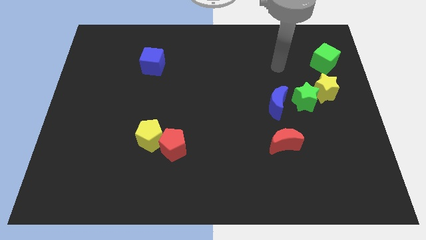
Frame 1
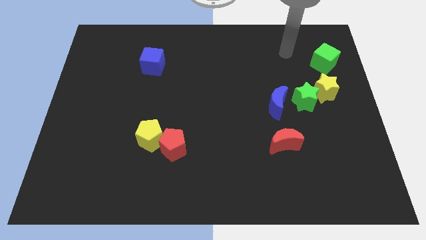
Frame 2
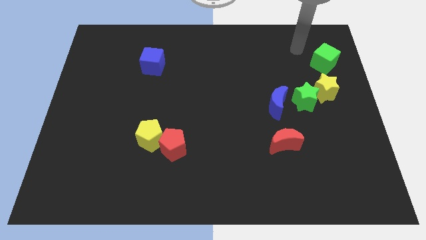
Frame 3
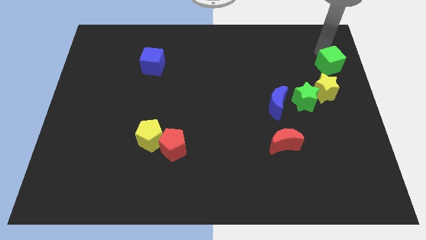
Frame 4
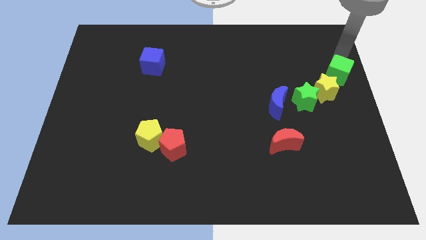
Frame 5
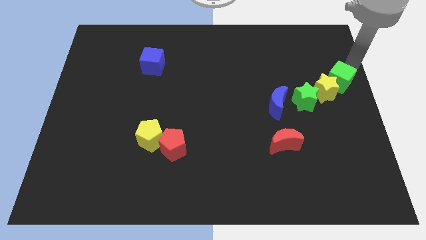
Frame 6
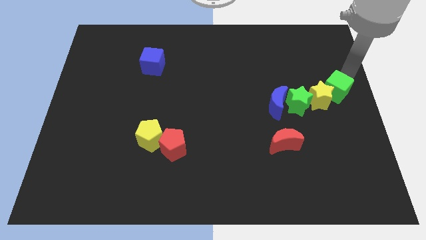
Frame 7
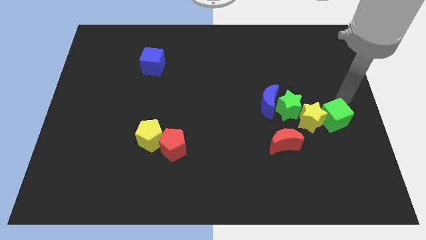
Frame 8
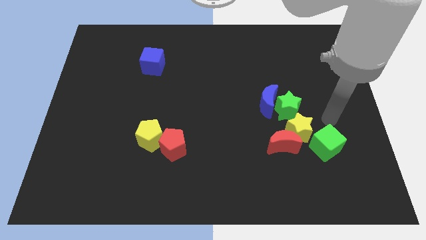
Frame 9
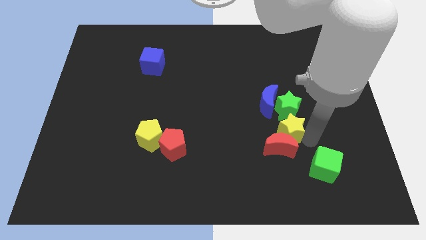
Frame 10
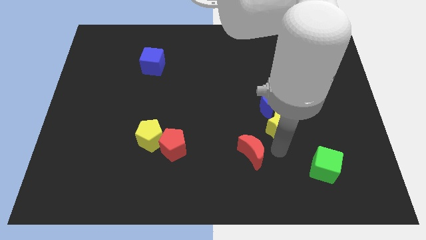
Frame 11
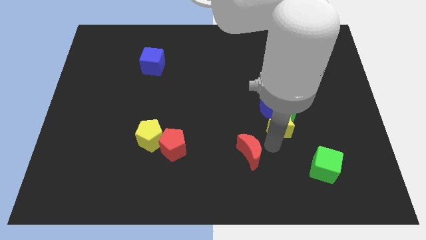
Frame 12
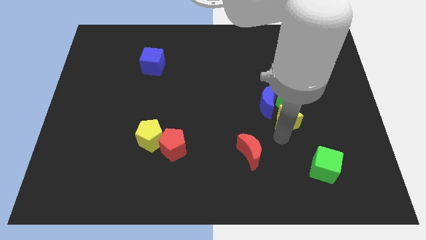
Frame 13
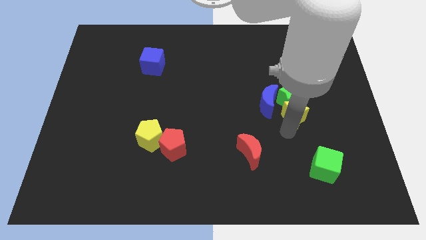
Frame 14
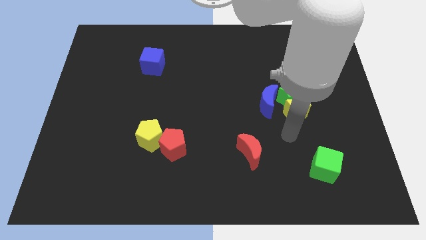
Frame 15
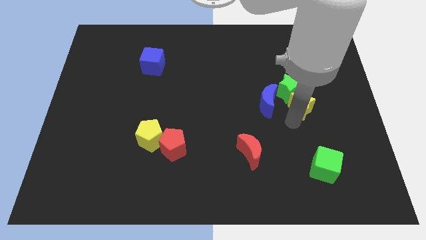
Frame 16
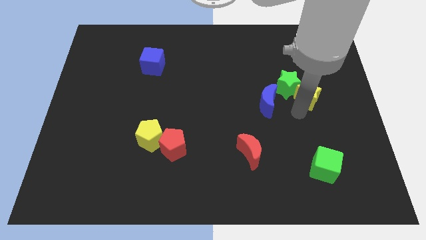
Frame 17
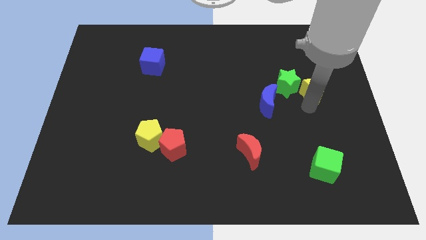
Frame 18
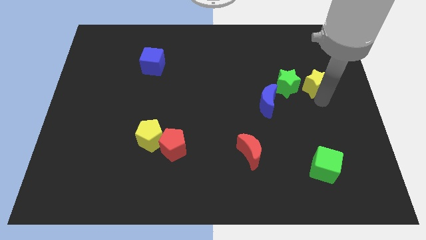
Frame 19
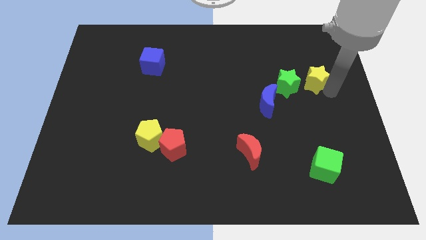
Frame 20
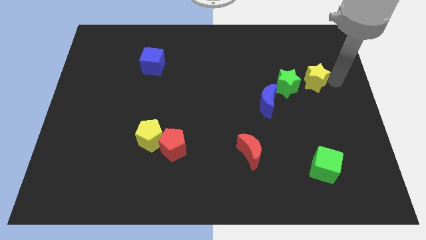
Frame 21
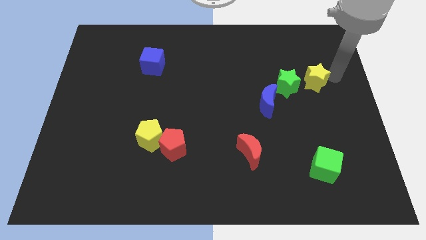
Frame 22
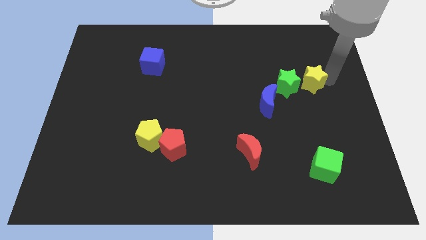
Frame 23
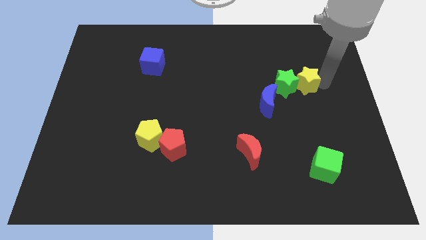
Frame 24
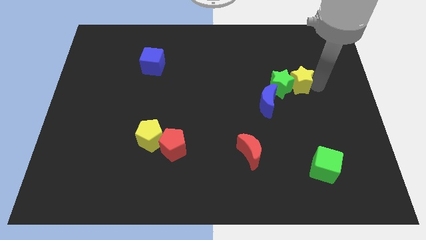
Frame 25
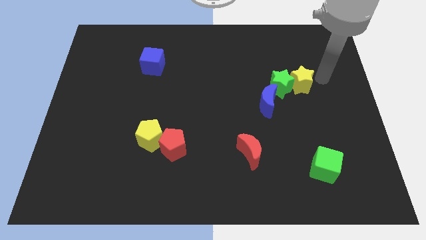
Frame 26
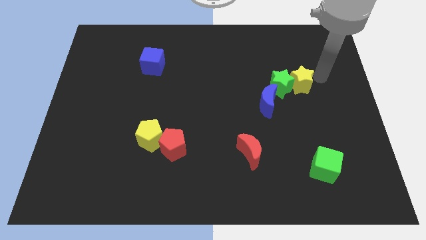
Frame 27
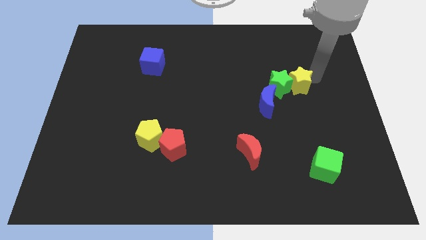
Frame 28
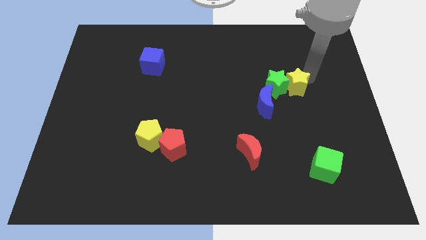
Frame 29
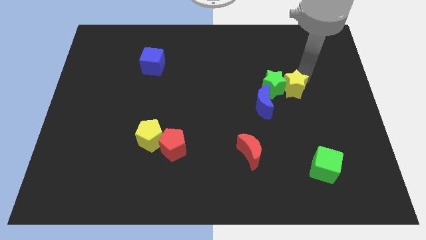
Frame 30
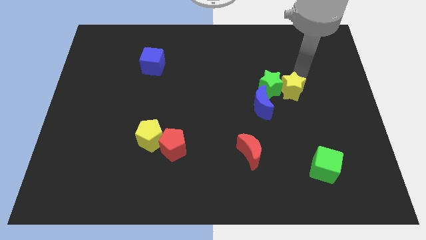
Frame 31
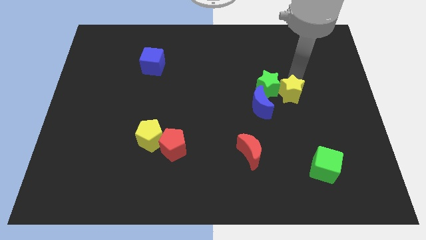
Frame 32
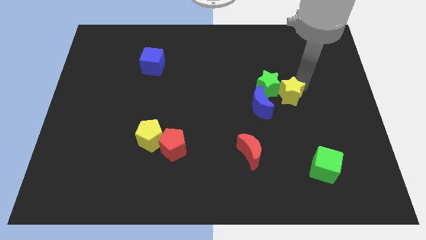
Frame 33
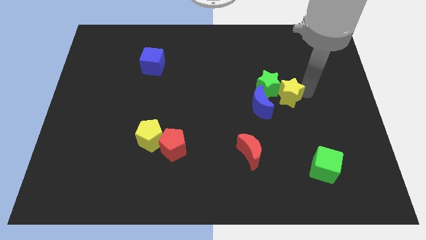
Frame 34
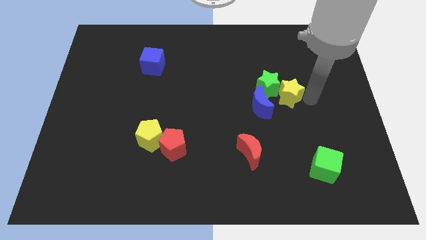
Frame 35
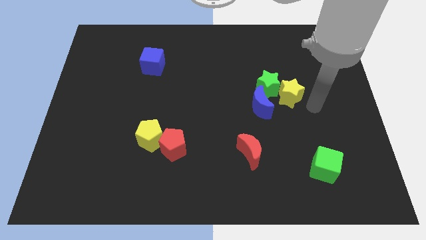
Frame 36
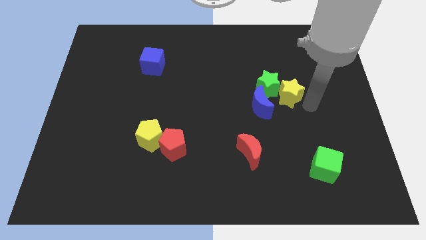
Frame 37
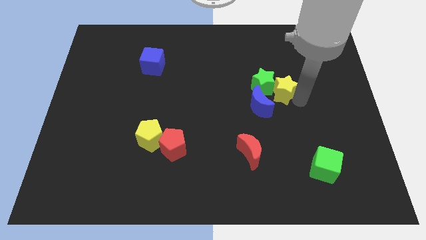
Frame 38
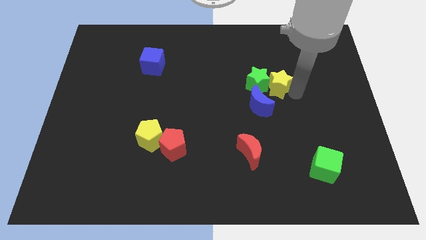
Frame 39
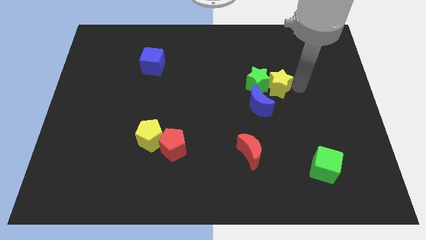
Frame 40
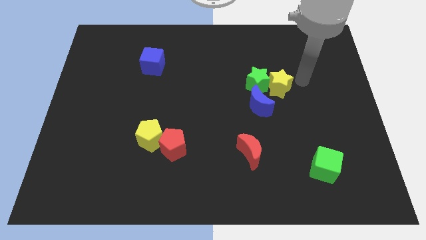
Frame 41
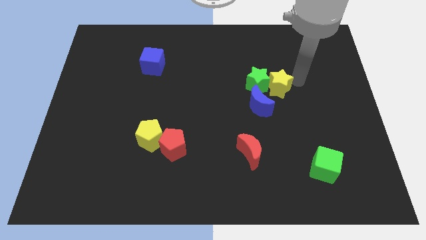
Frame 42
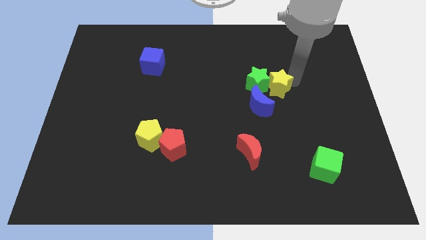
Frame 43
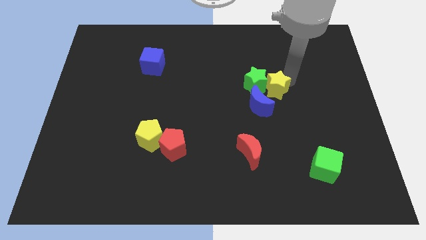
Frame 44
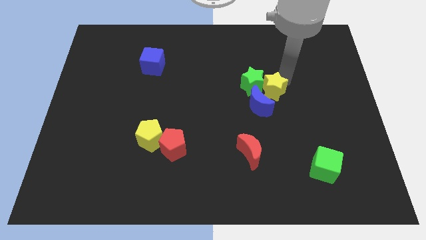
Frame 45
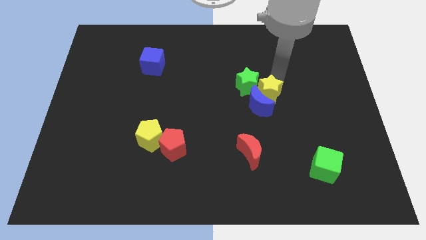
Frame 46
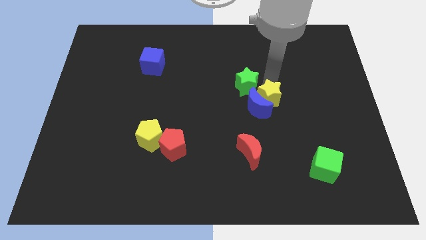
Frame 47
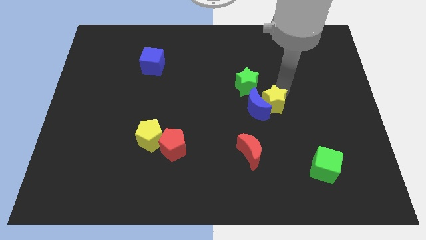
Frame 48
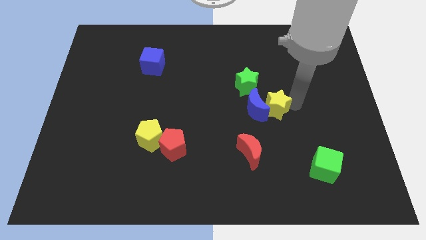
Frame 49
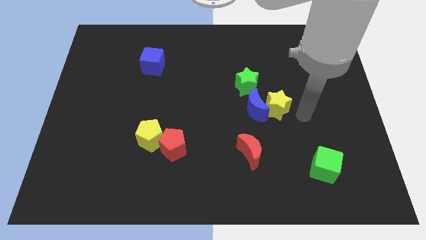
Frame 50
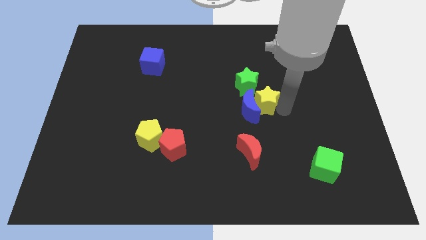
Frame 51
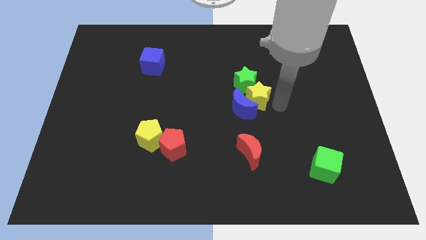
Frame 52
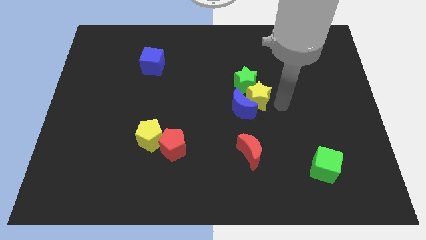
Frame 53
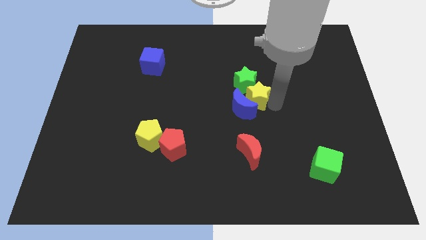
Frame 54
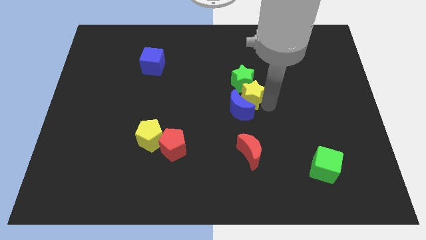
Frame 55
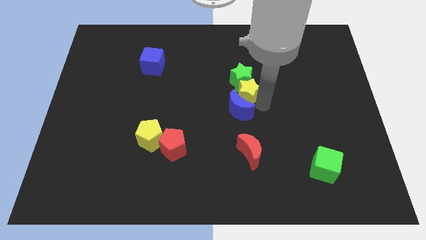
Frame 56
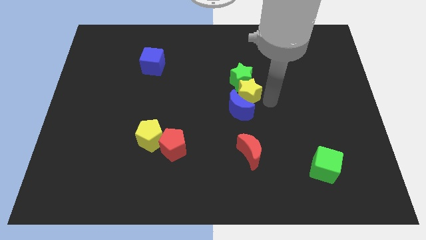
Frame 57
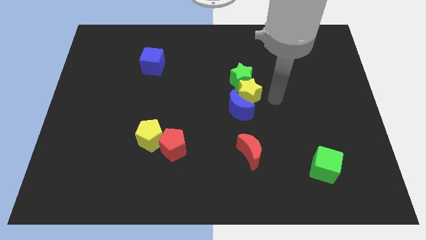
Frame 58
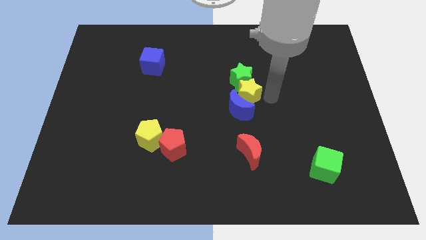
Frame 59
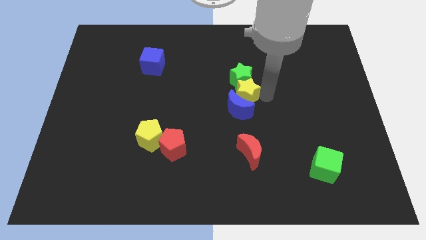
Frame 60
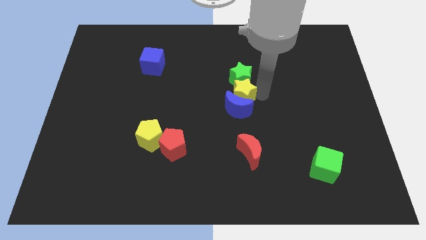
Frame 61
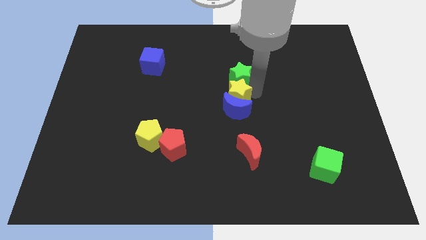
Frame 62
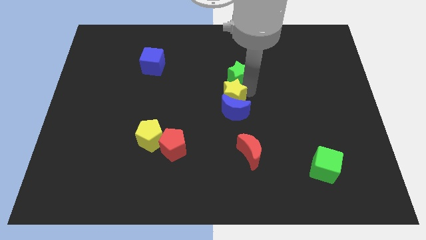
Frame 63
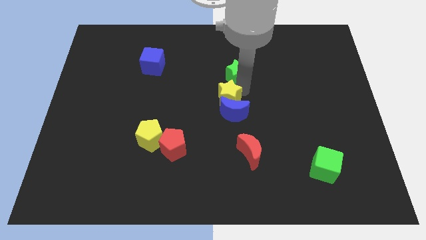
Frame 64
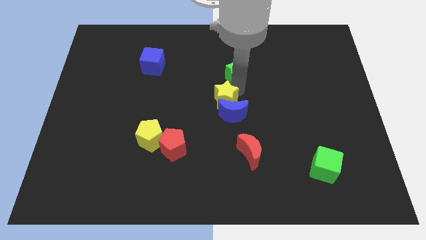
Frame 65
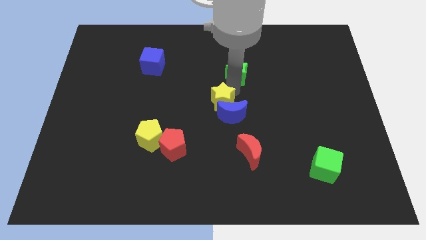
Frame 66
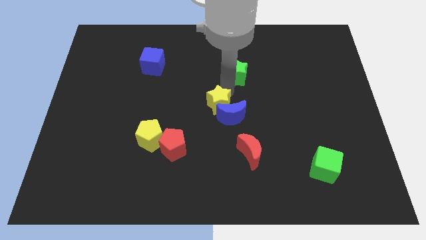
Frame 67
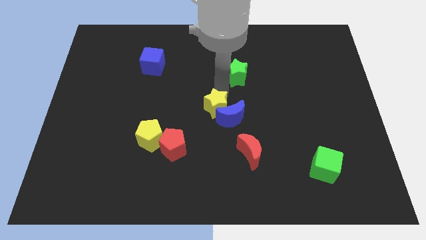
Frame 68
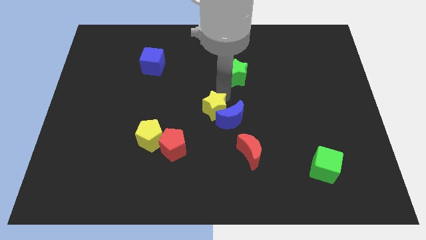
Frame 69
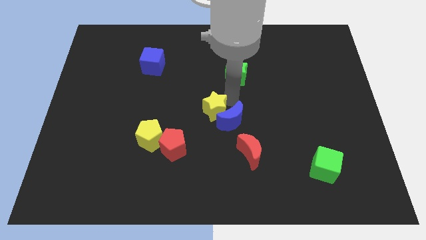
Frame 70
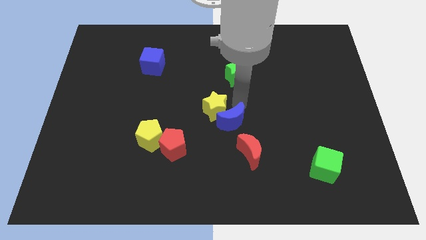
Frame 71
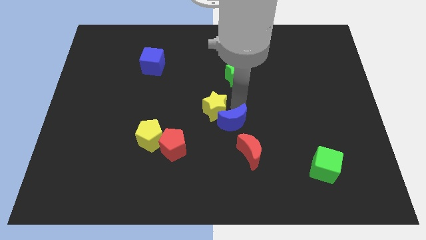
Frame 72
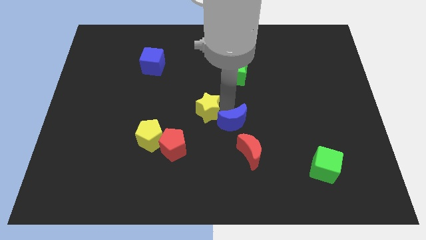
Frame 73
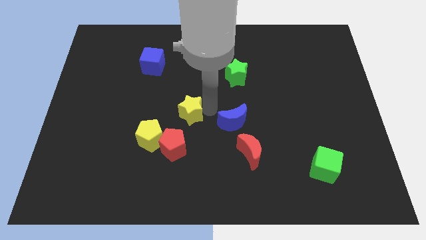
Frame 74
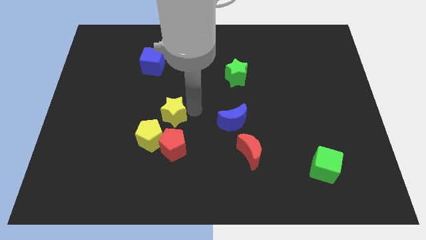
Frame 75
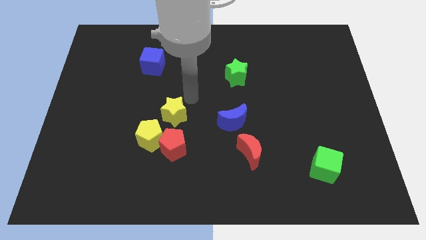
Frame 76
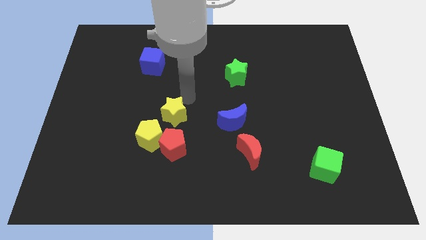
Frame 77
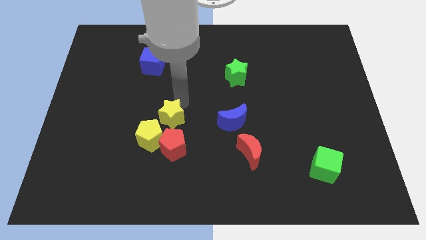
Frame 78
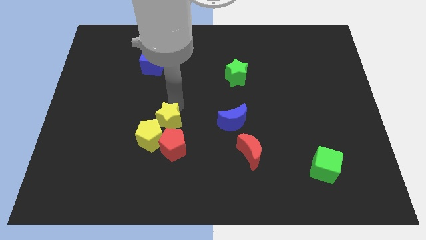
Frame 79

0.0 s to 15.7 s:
slide the yellow star towards the yellow pentagon
